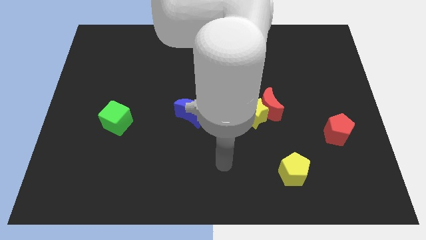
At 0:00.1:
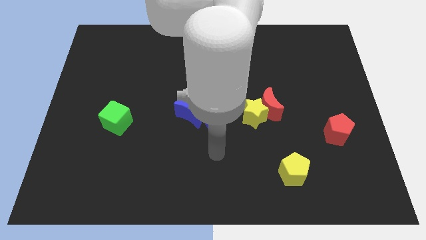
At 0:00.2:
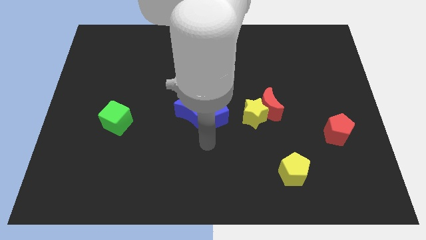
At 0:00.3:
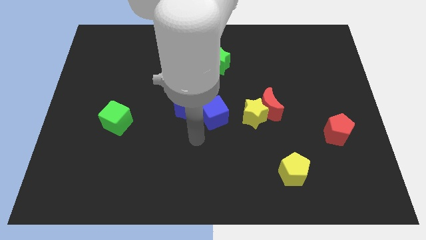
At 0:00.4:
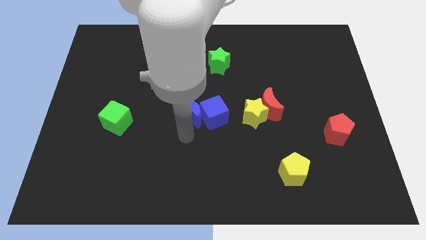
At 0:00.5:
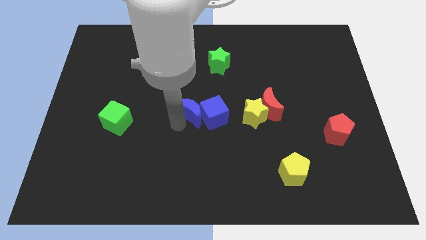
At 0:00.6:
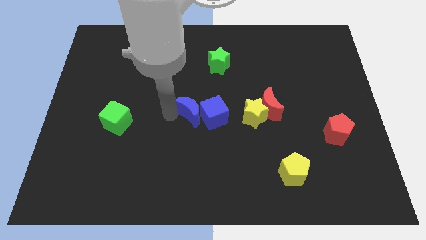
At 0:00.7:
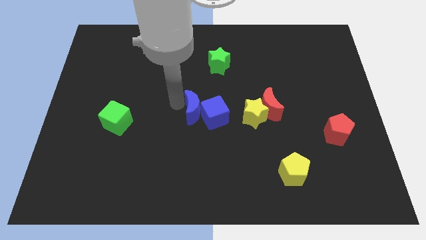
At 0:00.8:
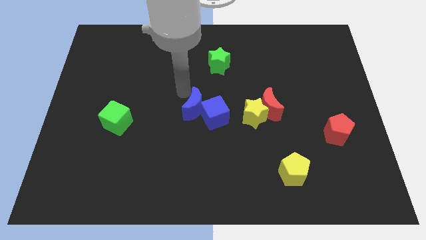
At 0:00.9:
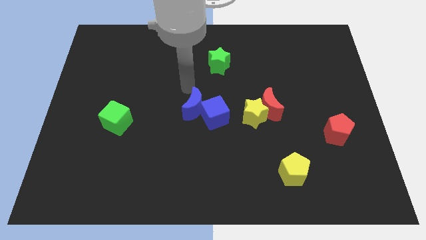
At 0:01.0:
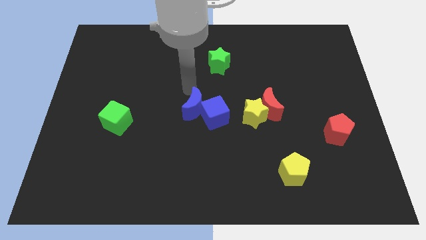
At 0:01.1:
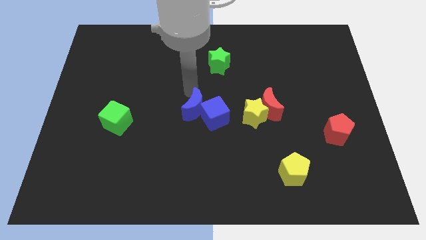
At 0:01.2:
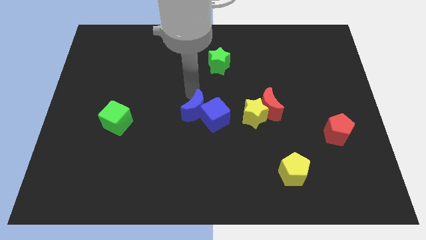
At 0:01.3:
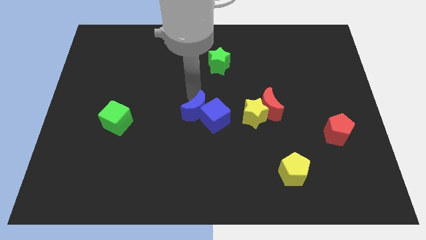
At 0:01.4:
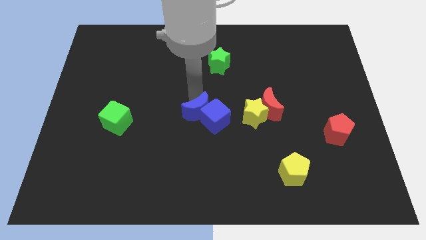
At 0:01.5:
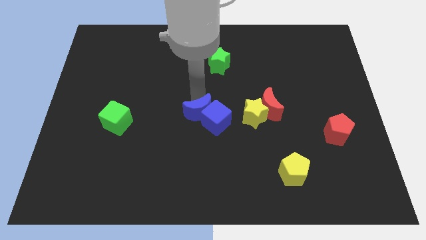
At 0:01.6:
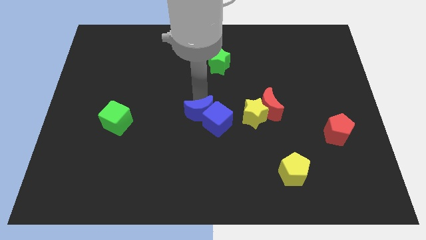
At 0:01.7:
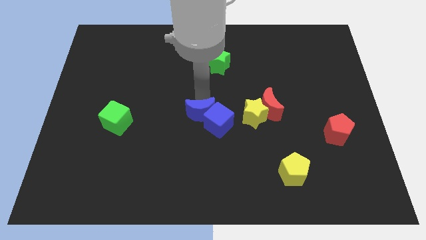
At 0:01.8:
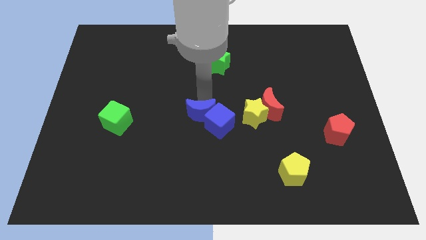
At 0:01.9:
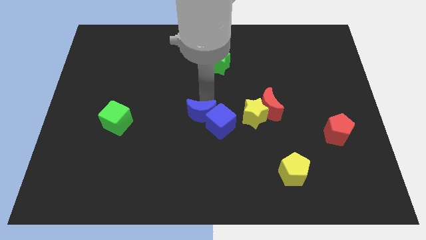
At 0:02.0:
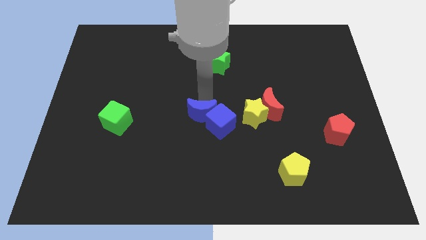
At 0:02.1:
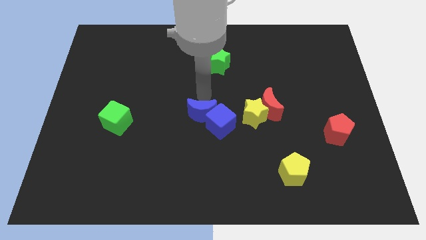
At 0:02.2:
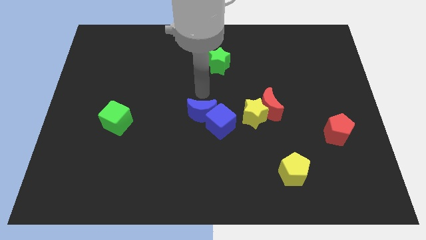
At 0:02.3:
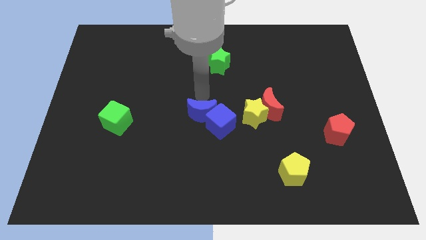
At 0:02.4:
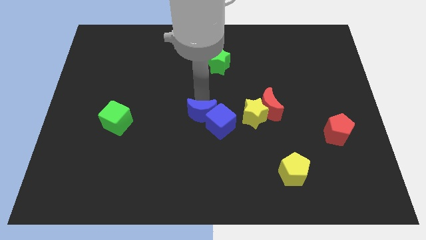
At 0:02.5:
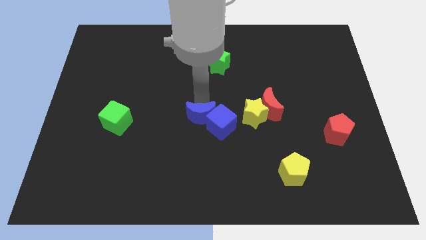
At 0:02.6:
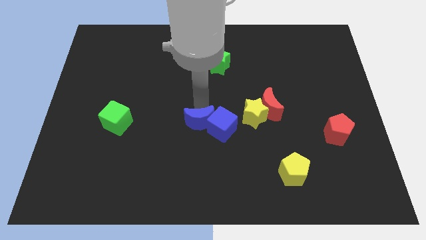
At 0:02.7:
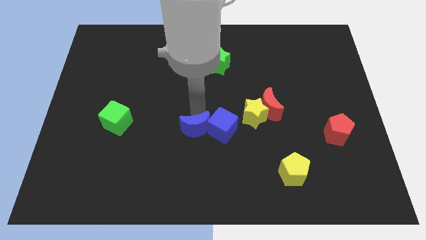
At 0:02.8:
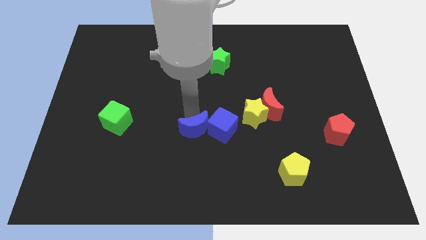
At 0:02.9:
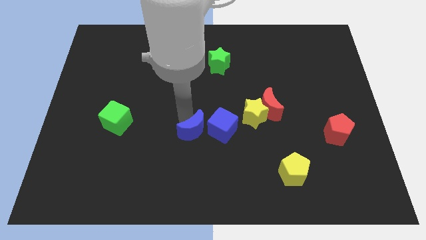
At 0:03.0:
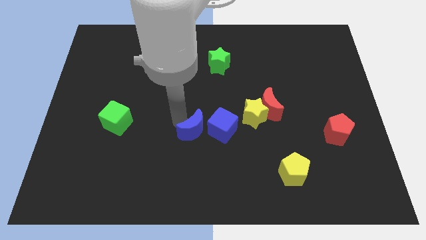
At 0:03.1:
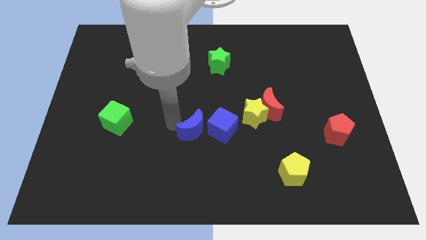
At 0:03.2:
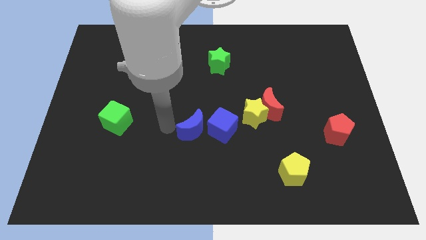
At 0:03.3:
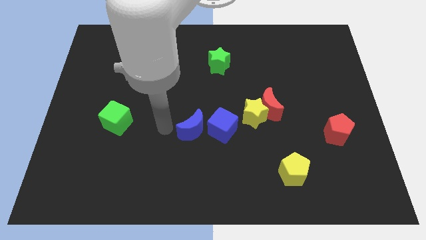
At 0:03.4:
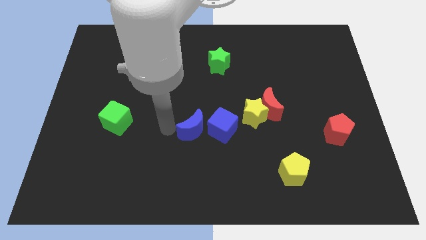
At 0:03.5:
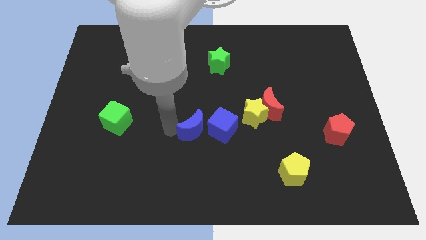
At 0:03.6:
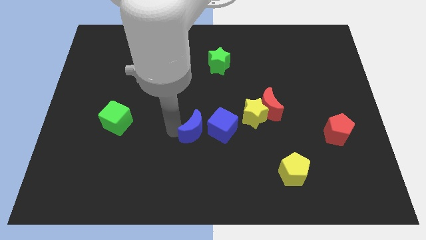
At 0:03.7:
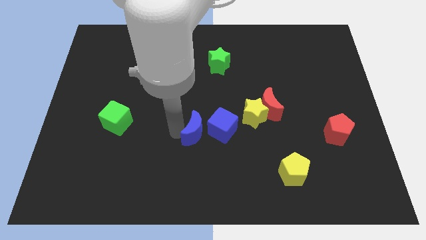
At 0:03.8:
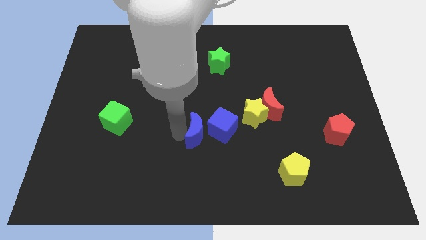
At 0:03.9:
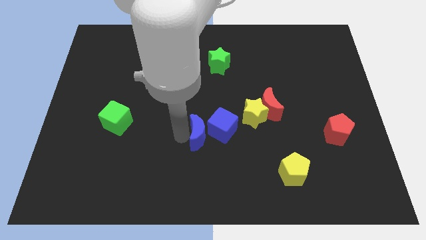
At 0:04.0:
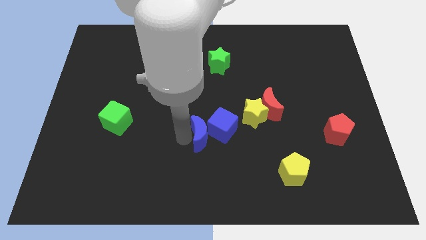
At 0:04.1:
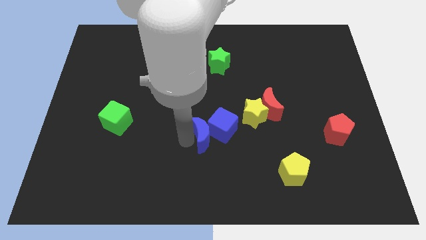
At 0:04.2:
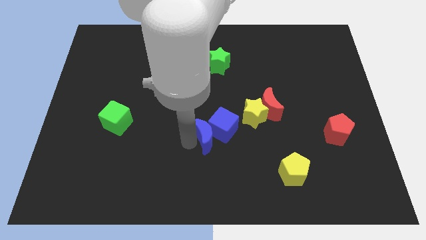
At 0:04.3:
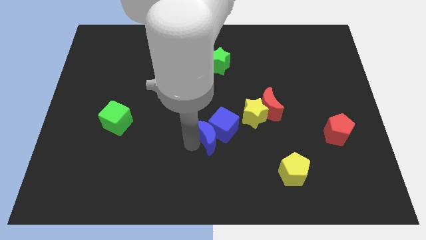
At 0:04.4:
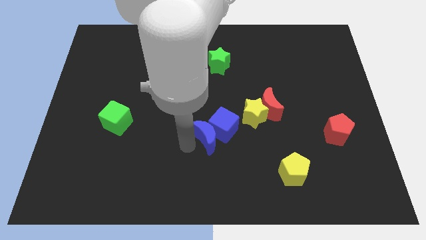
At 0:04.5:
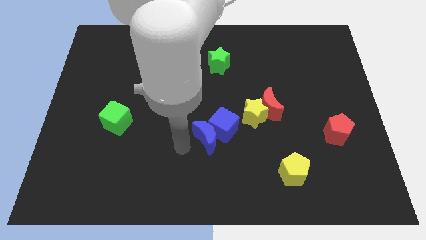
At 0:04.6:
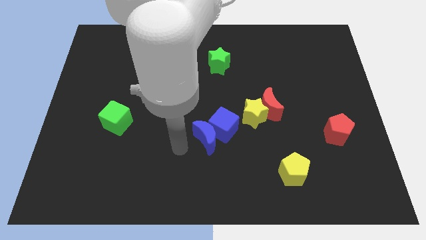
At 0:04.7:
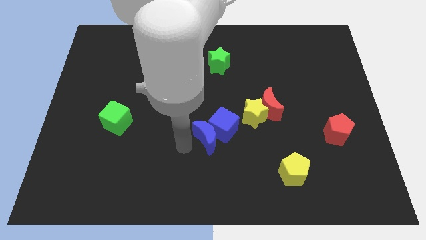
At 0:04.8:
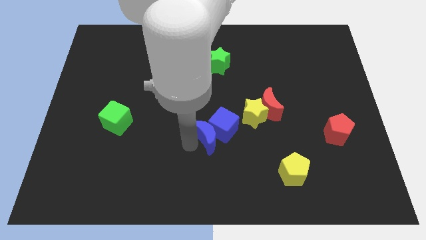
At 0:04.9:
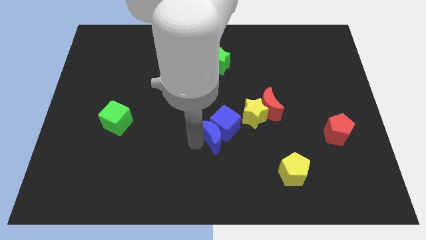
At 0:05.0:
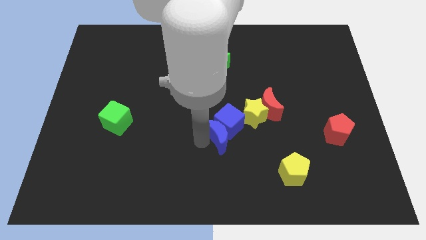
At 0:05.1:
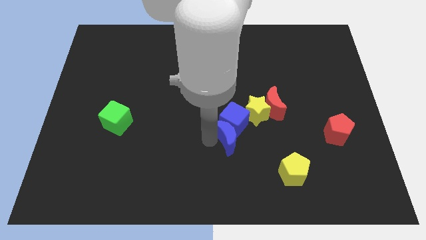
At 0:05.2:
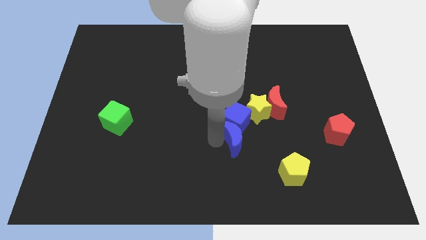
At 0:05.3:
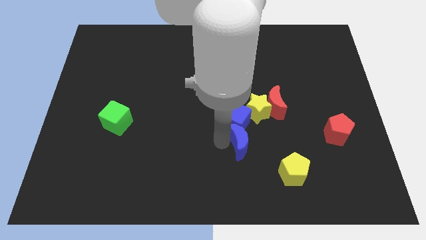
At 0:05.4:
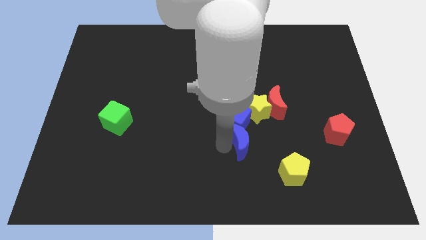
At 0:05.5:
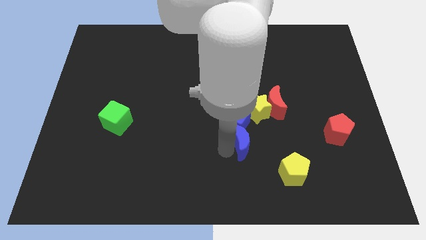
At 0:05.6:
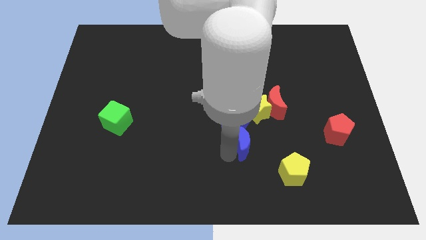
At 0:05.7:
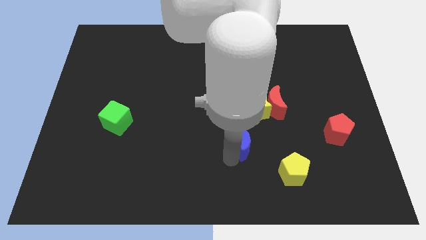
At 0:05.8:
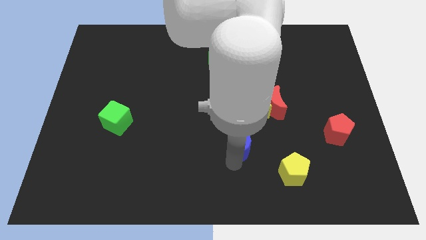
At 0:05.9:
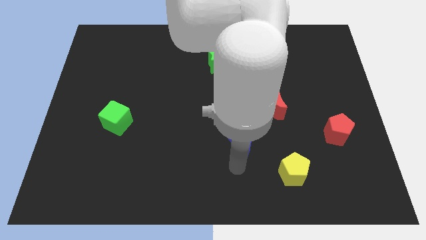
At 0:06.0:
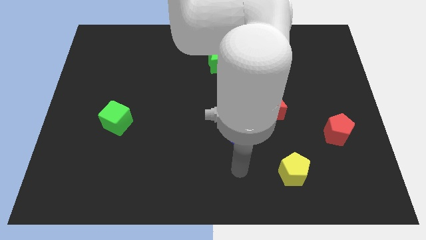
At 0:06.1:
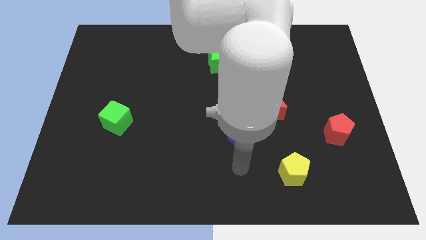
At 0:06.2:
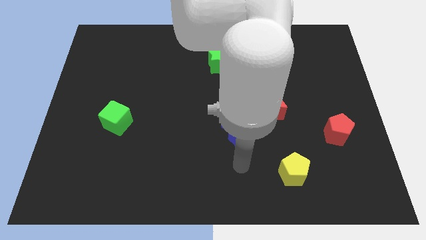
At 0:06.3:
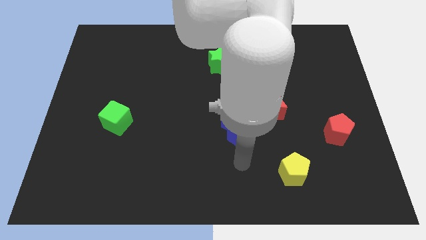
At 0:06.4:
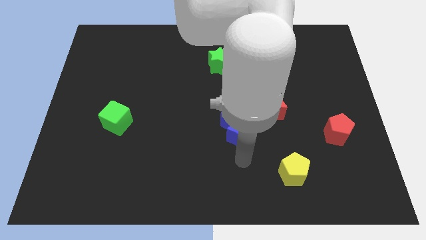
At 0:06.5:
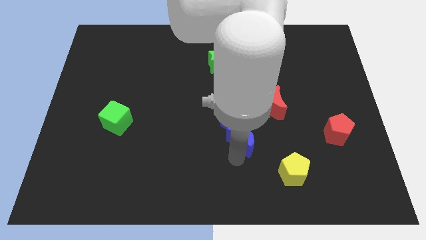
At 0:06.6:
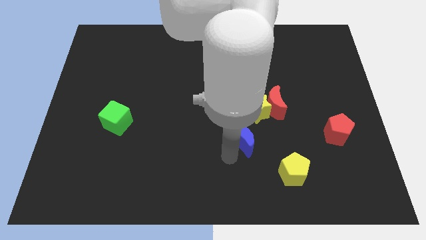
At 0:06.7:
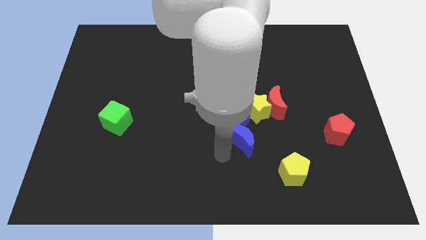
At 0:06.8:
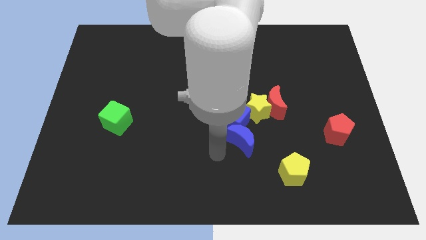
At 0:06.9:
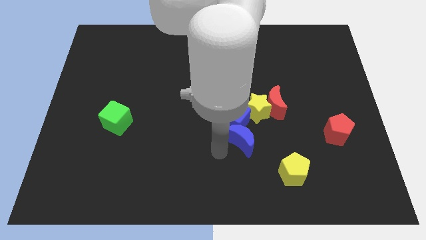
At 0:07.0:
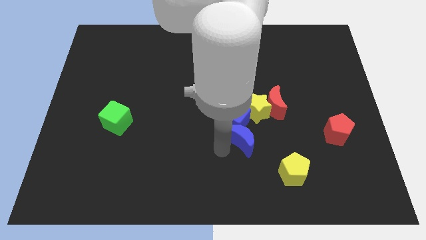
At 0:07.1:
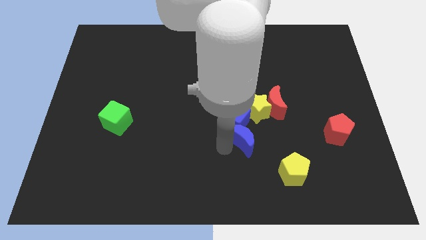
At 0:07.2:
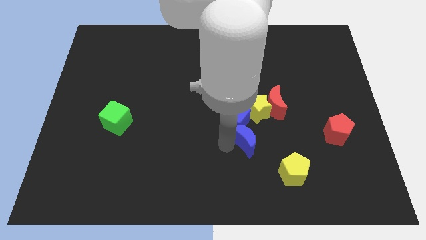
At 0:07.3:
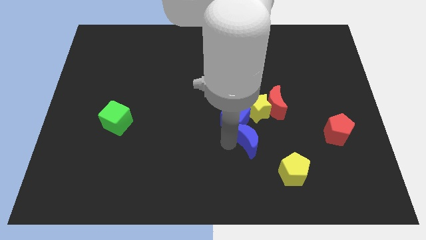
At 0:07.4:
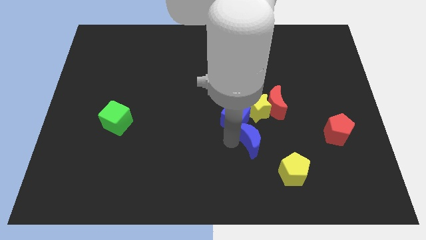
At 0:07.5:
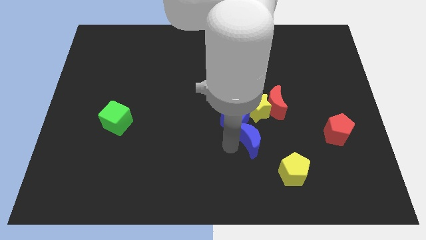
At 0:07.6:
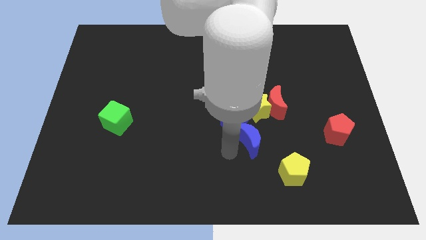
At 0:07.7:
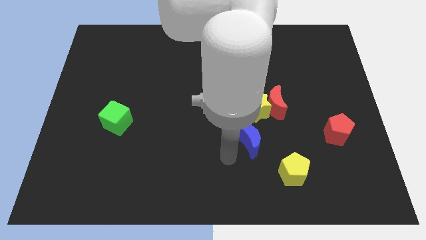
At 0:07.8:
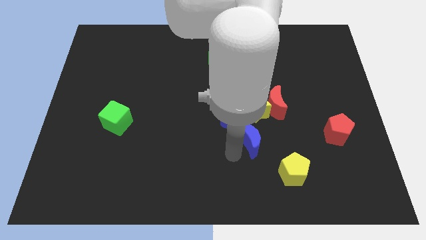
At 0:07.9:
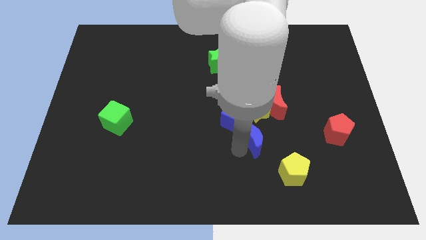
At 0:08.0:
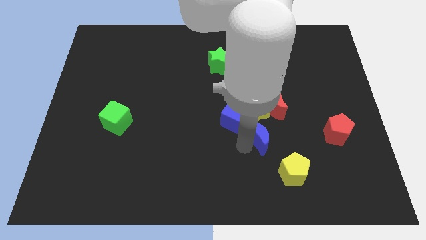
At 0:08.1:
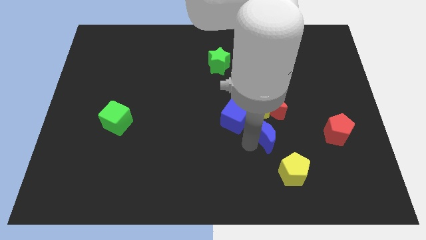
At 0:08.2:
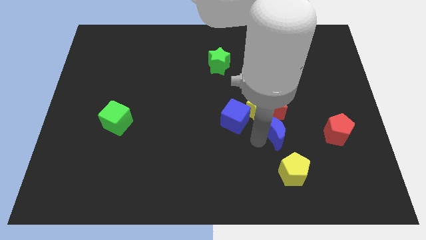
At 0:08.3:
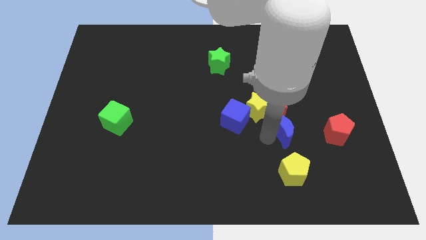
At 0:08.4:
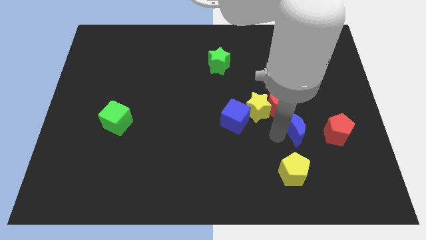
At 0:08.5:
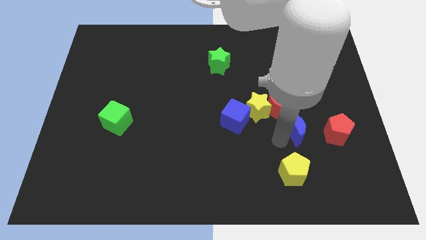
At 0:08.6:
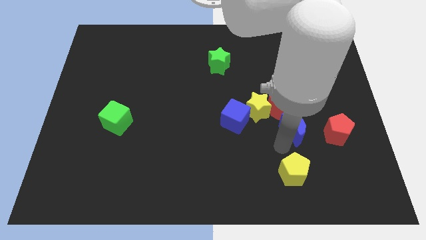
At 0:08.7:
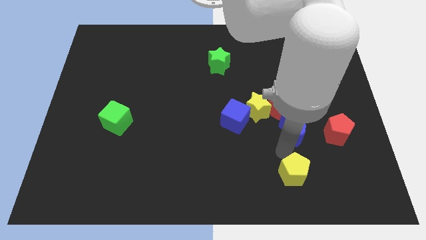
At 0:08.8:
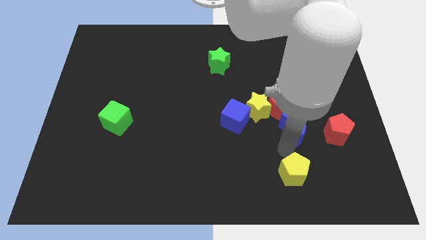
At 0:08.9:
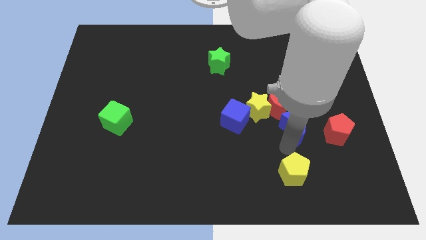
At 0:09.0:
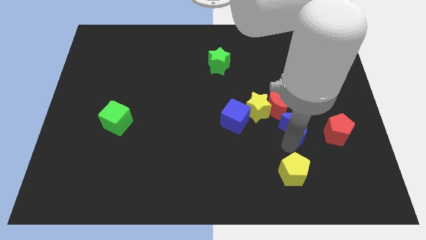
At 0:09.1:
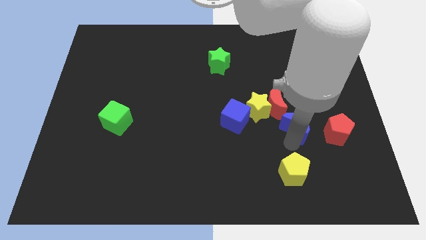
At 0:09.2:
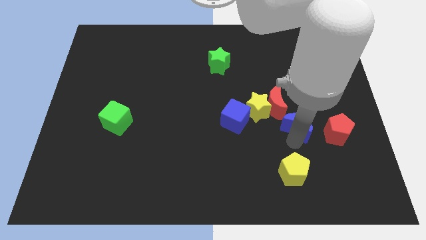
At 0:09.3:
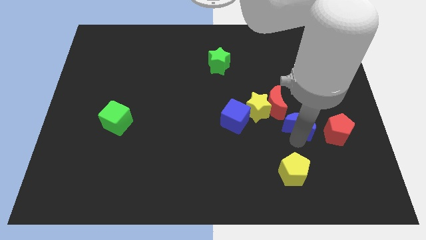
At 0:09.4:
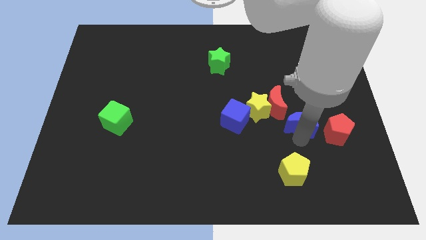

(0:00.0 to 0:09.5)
push the blue moon just right of the yellow star
